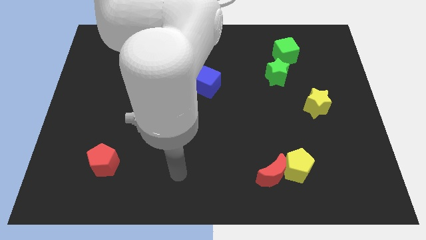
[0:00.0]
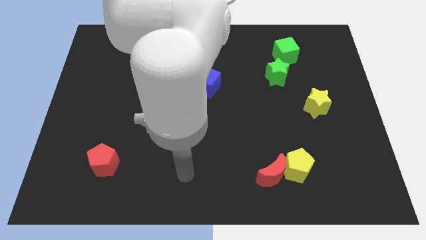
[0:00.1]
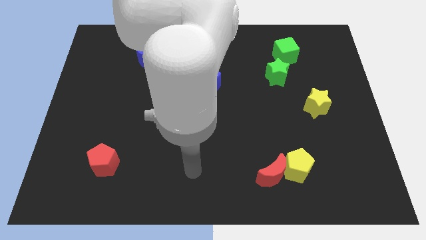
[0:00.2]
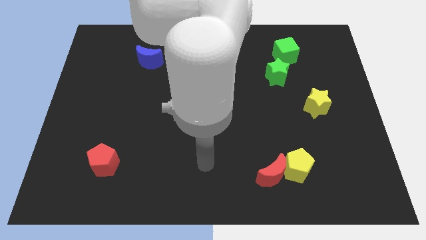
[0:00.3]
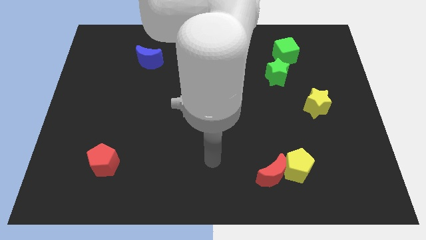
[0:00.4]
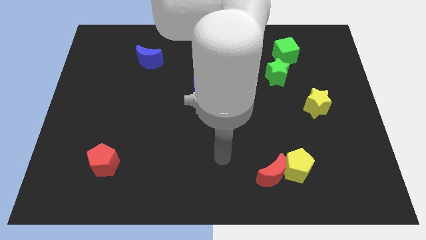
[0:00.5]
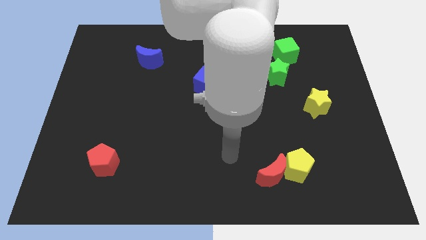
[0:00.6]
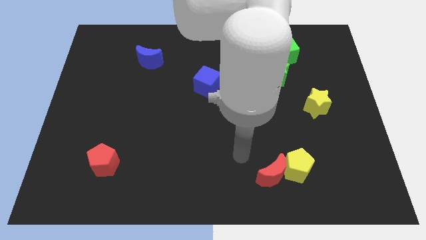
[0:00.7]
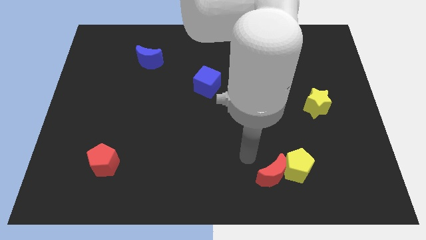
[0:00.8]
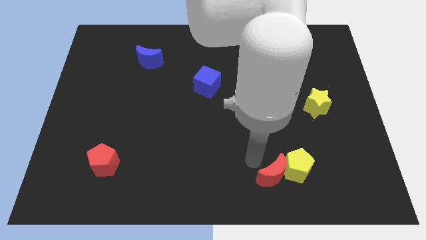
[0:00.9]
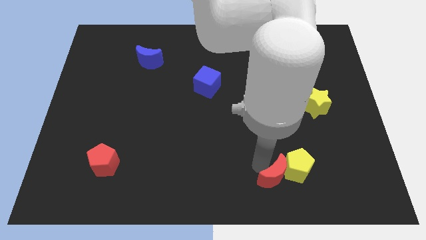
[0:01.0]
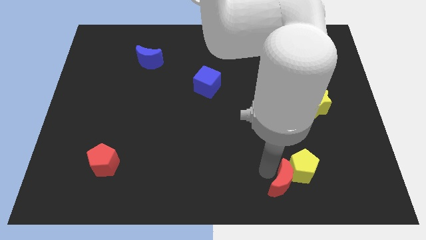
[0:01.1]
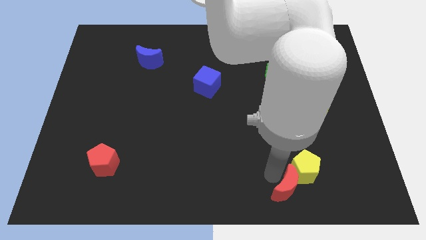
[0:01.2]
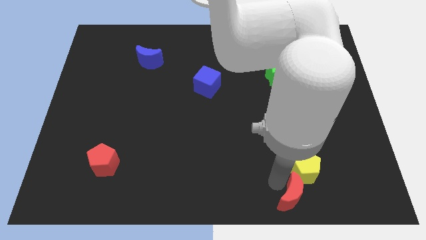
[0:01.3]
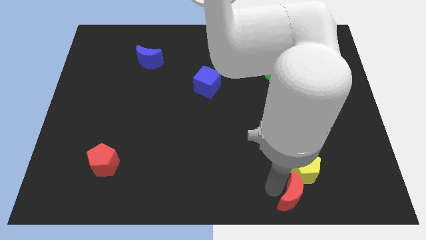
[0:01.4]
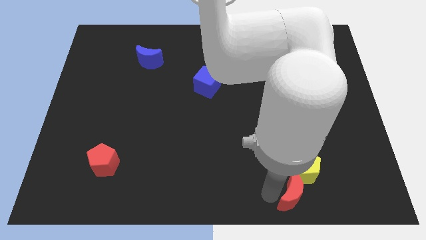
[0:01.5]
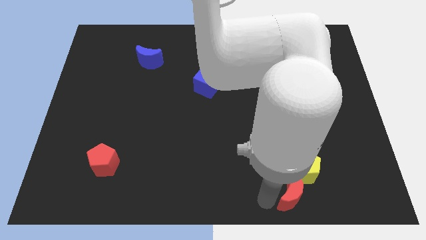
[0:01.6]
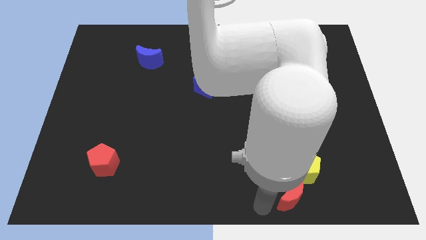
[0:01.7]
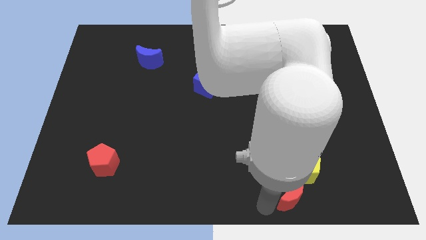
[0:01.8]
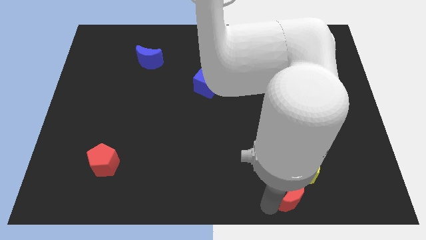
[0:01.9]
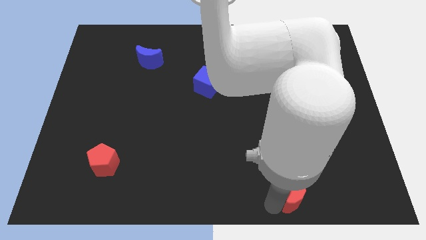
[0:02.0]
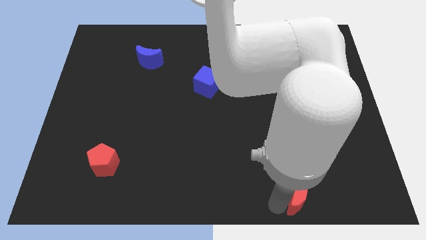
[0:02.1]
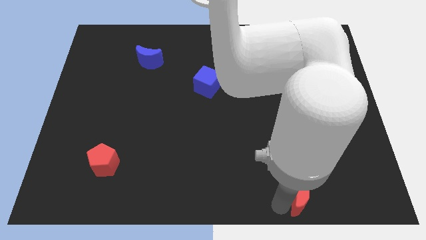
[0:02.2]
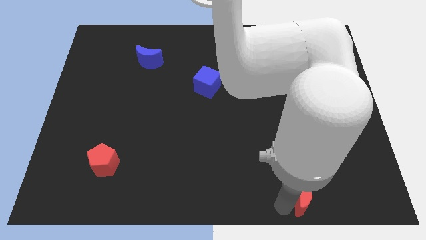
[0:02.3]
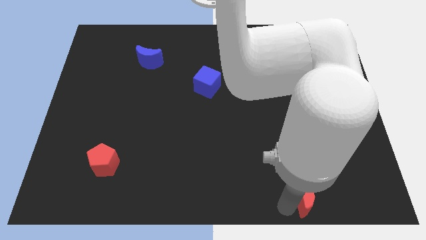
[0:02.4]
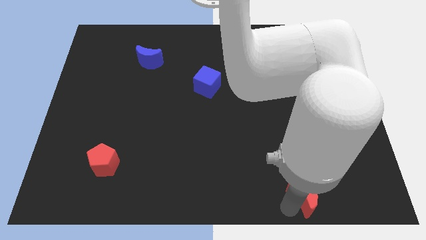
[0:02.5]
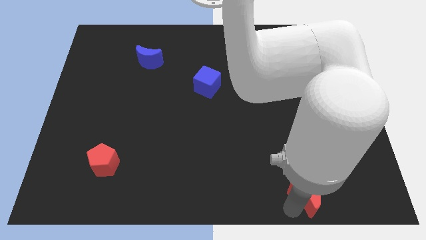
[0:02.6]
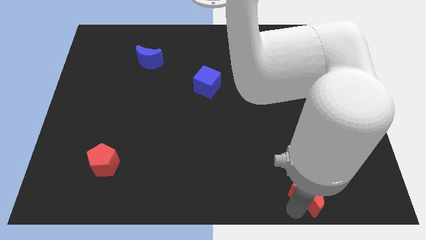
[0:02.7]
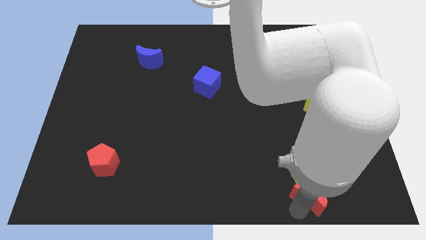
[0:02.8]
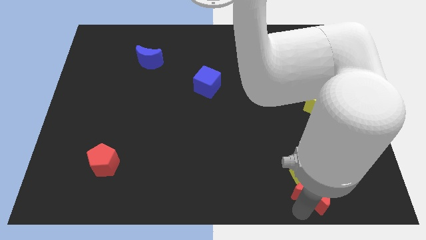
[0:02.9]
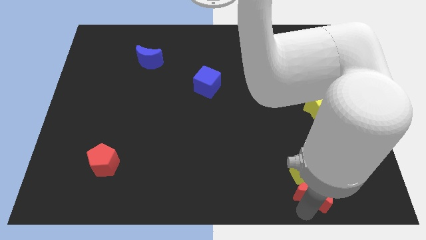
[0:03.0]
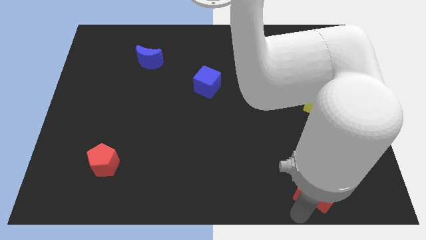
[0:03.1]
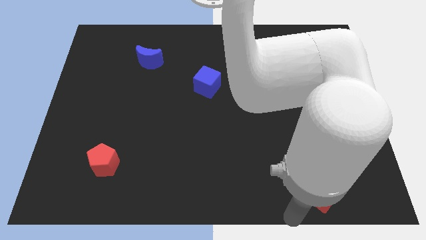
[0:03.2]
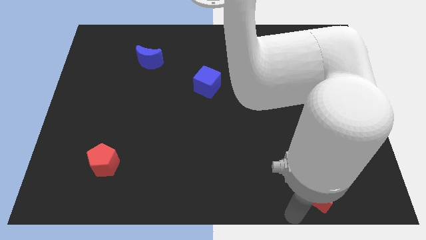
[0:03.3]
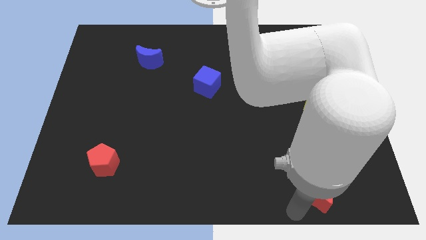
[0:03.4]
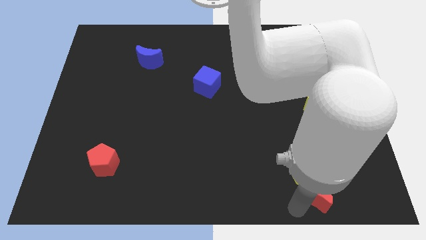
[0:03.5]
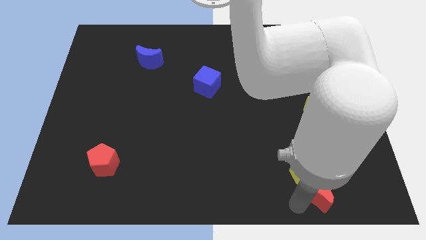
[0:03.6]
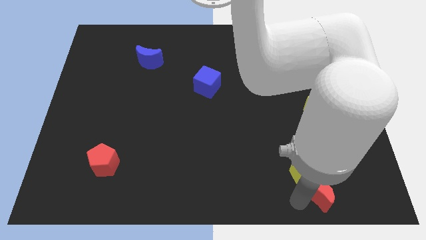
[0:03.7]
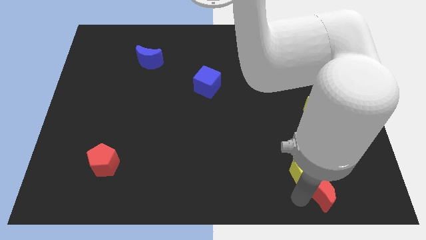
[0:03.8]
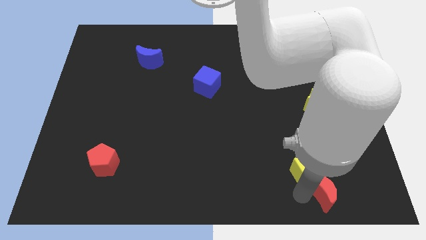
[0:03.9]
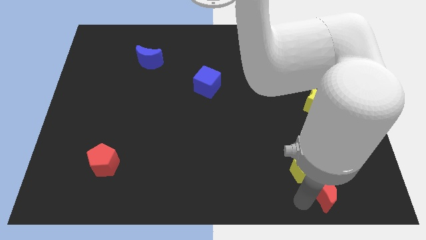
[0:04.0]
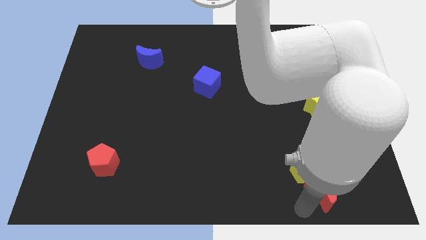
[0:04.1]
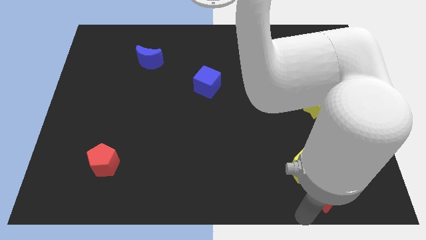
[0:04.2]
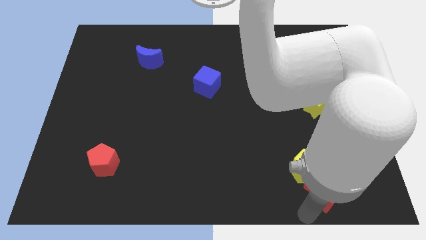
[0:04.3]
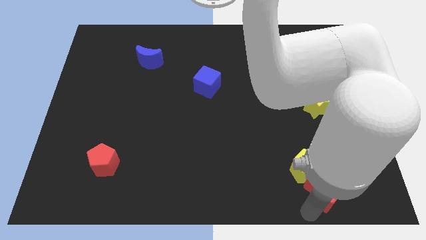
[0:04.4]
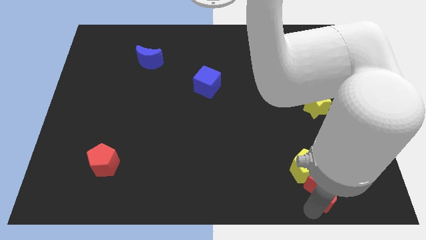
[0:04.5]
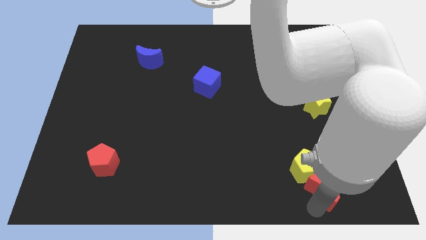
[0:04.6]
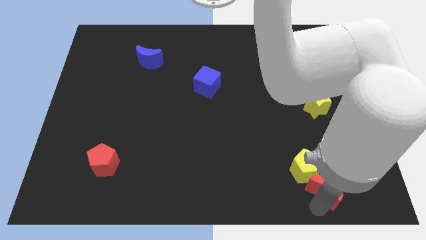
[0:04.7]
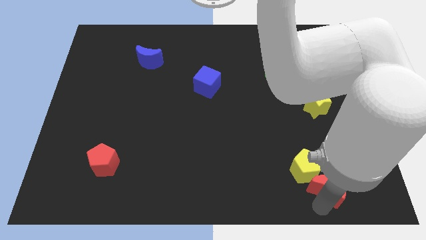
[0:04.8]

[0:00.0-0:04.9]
slide the red moon to the right of the yellow pentagon

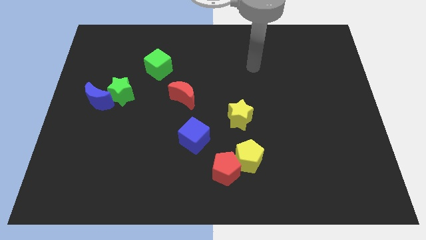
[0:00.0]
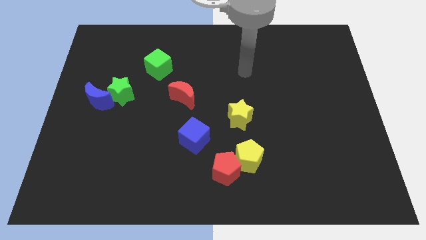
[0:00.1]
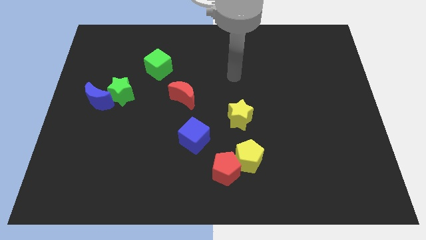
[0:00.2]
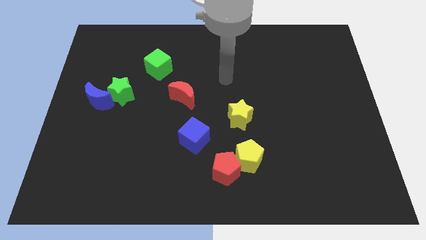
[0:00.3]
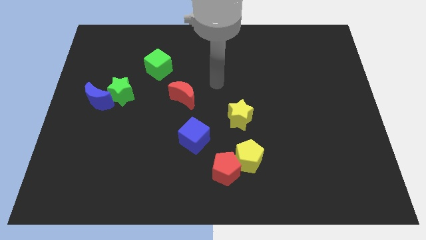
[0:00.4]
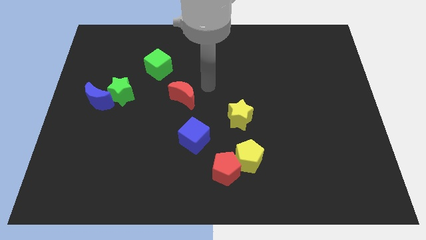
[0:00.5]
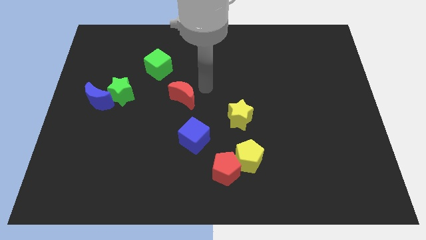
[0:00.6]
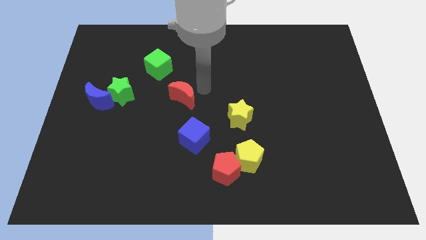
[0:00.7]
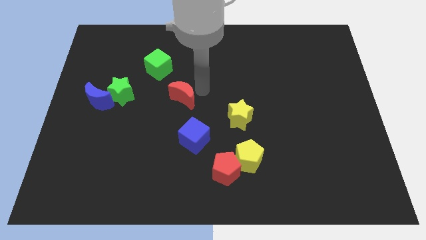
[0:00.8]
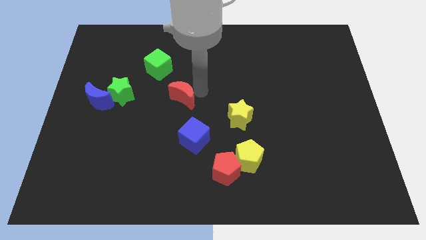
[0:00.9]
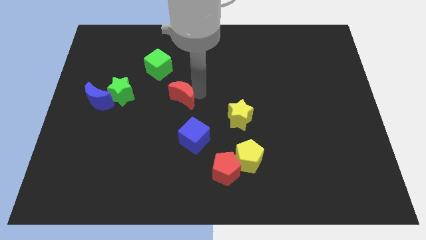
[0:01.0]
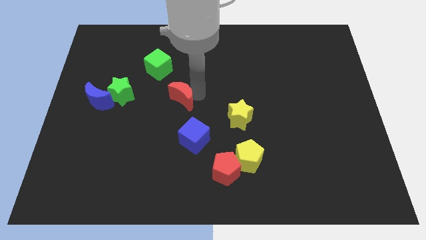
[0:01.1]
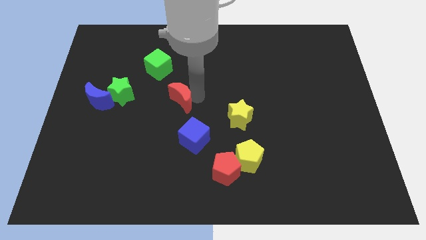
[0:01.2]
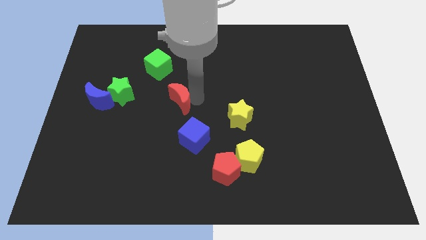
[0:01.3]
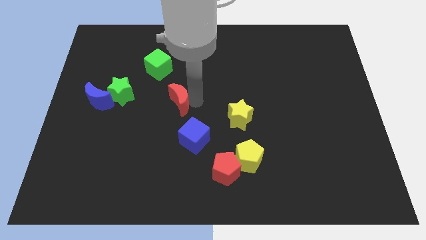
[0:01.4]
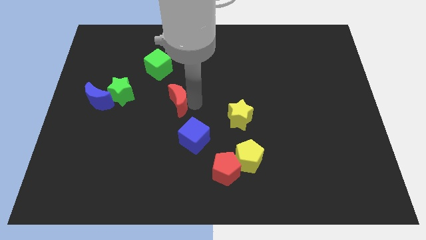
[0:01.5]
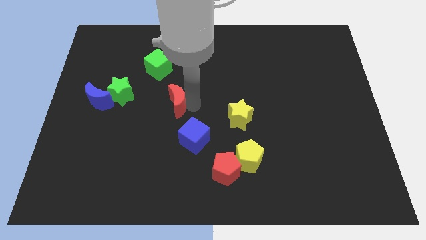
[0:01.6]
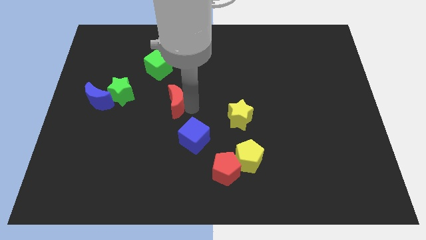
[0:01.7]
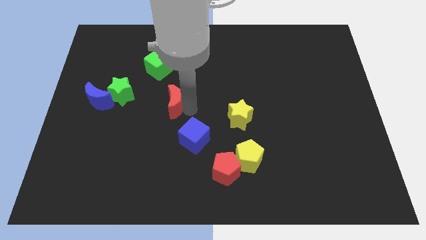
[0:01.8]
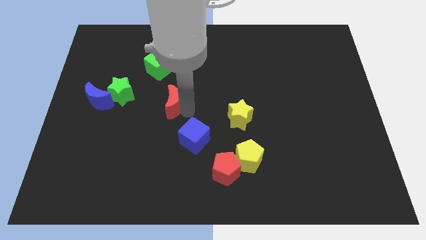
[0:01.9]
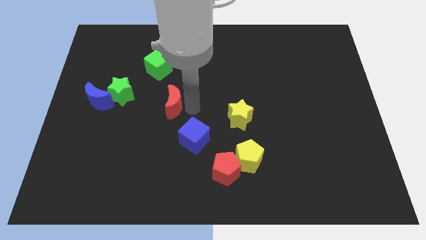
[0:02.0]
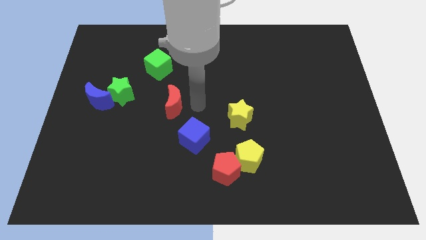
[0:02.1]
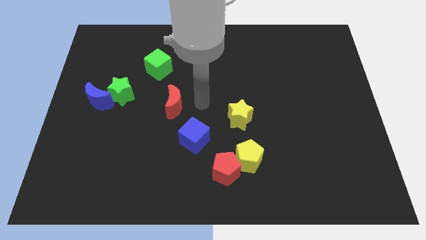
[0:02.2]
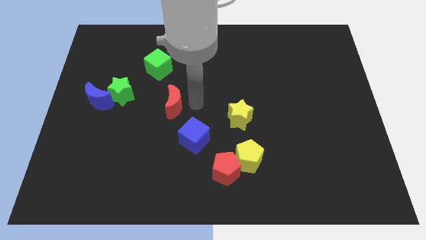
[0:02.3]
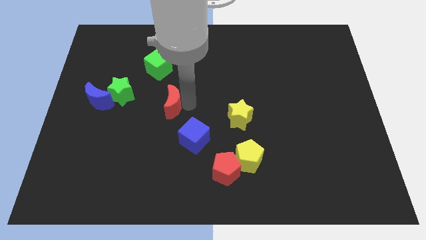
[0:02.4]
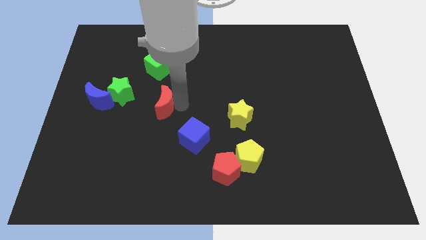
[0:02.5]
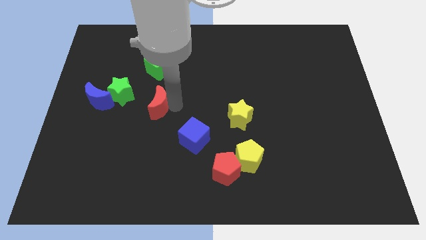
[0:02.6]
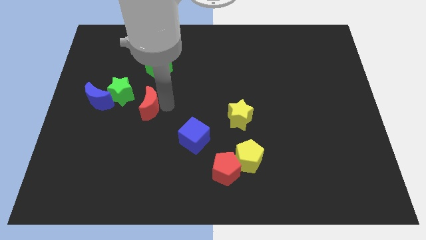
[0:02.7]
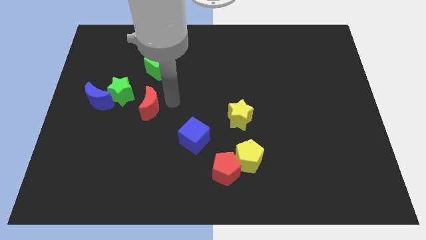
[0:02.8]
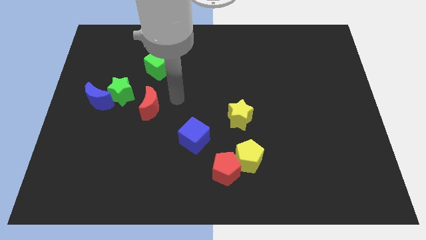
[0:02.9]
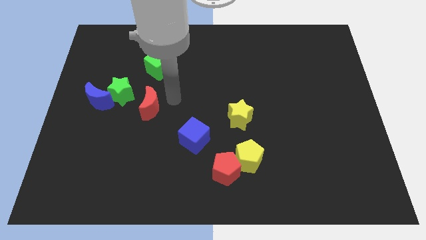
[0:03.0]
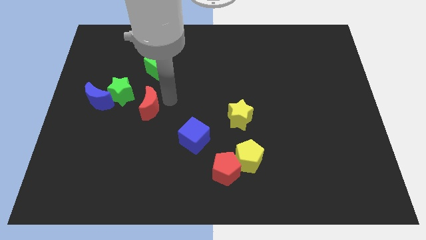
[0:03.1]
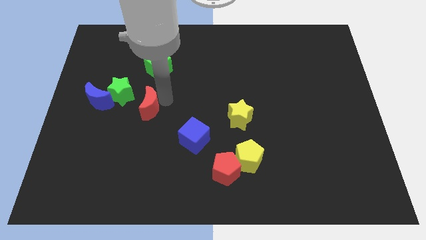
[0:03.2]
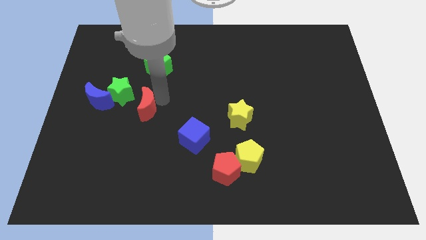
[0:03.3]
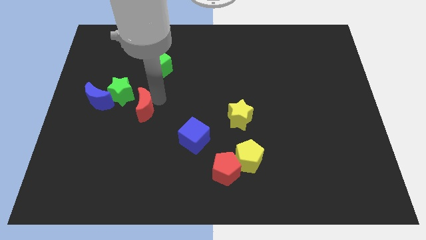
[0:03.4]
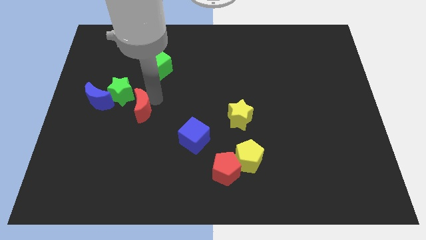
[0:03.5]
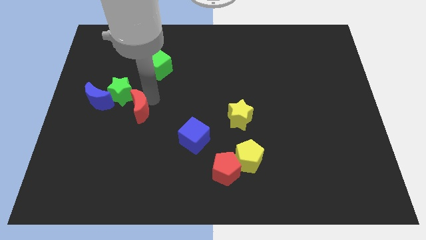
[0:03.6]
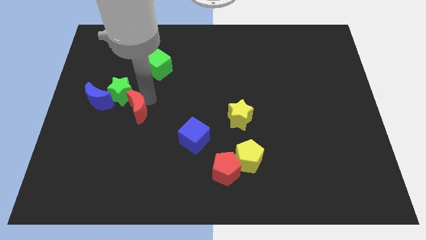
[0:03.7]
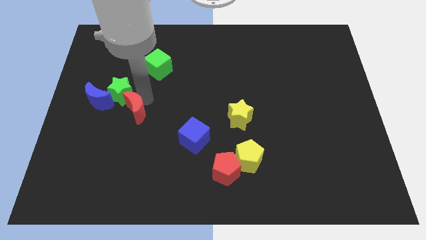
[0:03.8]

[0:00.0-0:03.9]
put the red moon to the bottom right side of the blue moon
